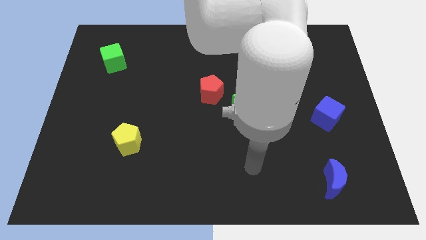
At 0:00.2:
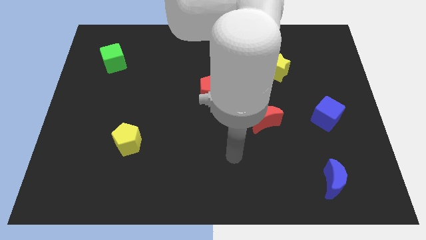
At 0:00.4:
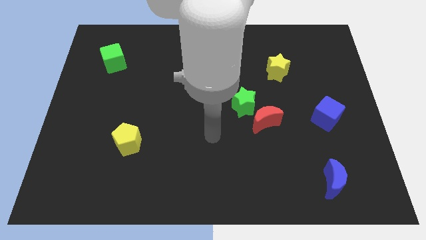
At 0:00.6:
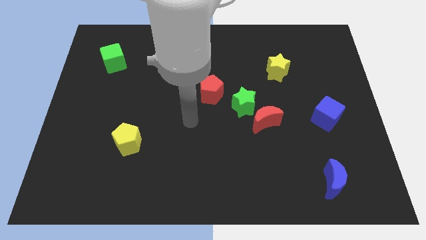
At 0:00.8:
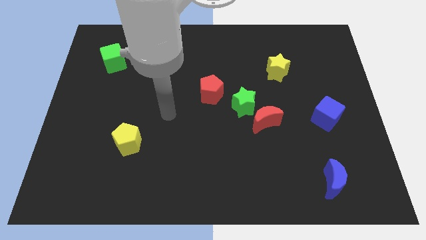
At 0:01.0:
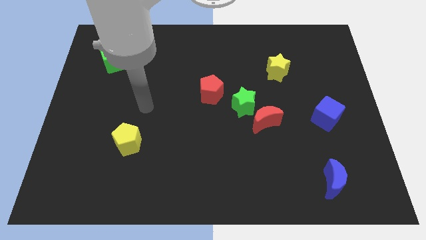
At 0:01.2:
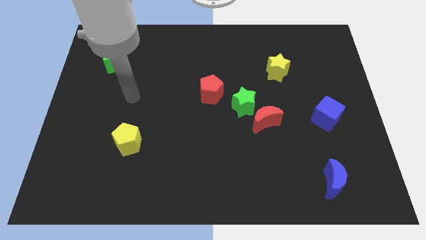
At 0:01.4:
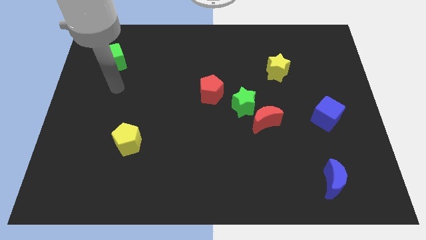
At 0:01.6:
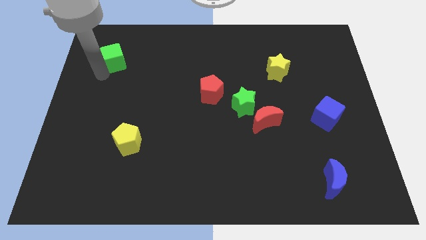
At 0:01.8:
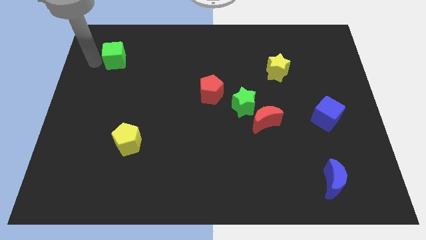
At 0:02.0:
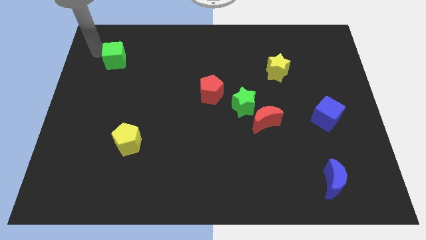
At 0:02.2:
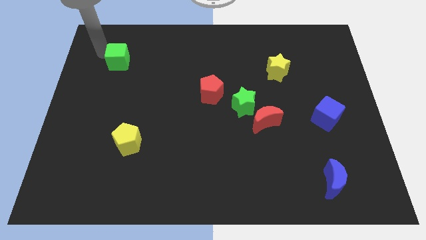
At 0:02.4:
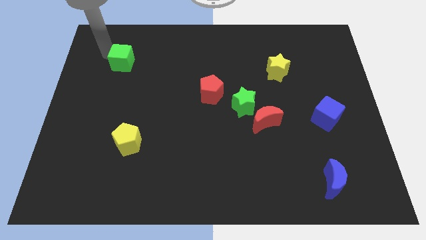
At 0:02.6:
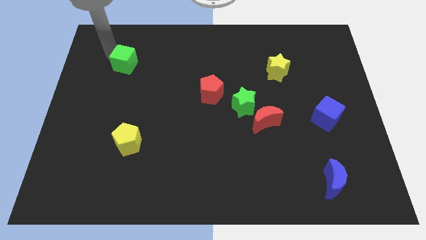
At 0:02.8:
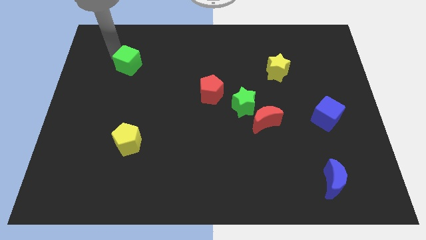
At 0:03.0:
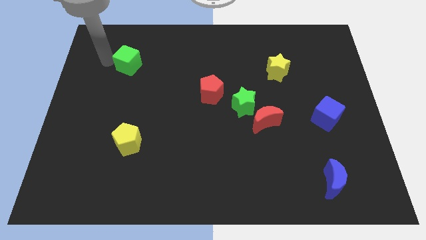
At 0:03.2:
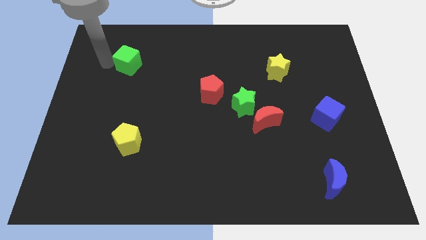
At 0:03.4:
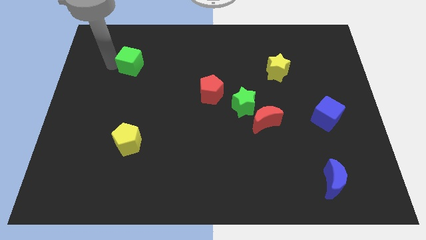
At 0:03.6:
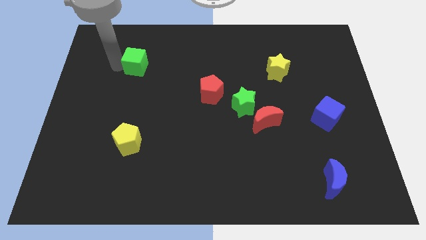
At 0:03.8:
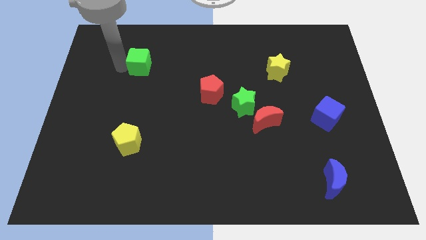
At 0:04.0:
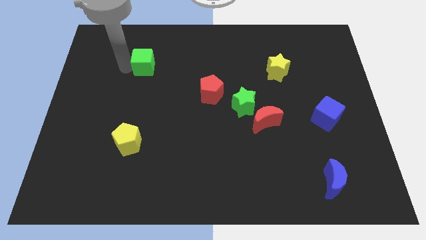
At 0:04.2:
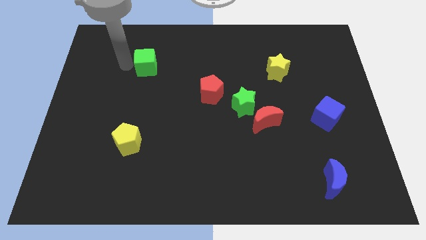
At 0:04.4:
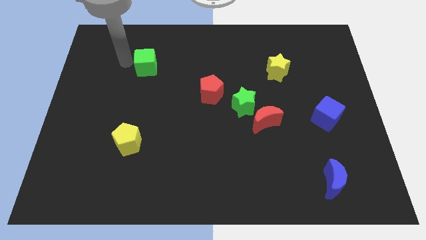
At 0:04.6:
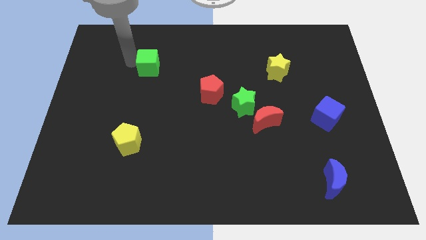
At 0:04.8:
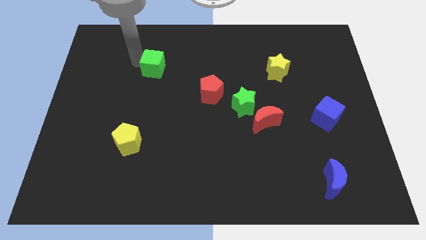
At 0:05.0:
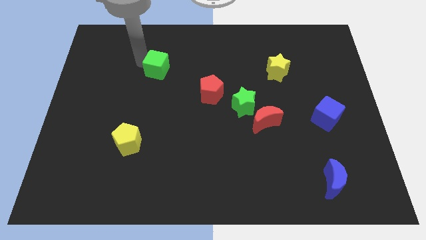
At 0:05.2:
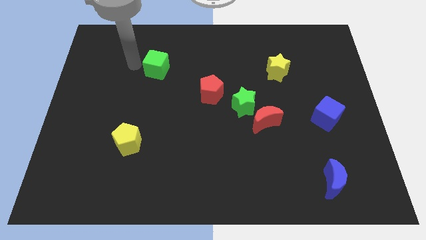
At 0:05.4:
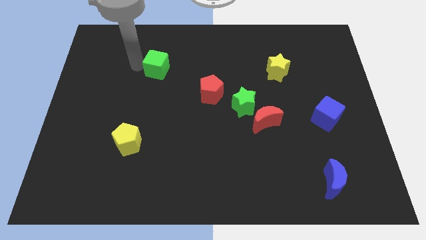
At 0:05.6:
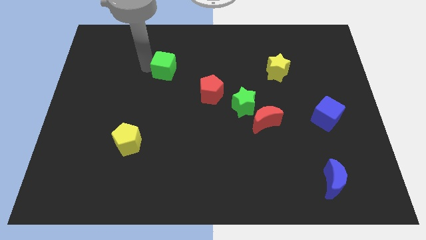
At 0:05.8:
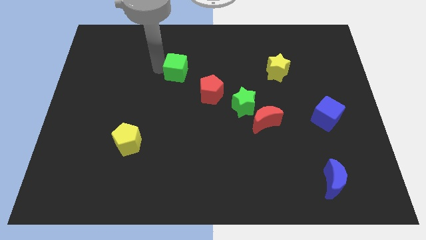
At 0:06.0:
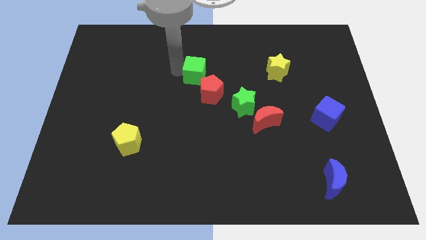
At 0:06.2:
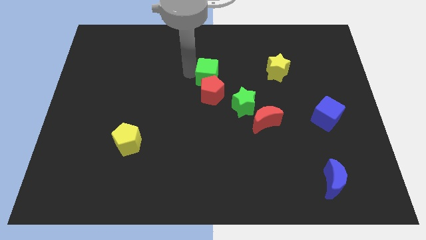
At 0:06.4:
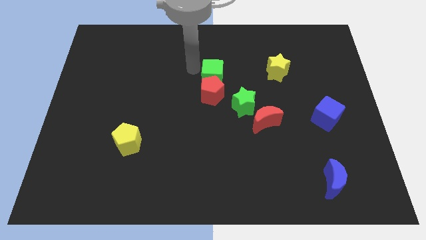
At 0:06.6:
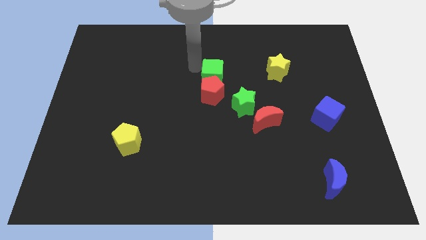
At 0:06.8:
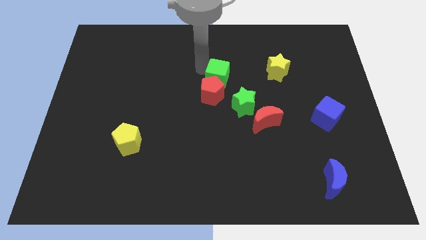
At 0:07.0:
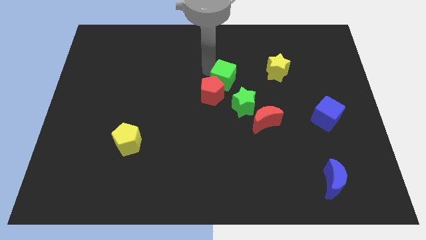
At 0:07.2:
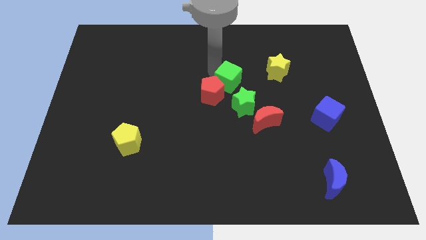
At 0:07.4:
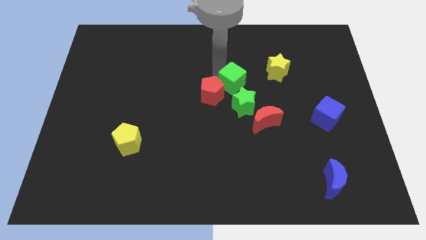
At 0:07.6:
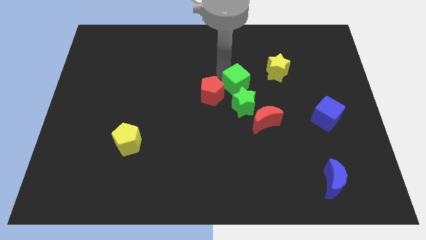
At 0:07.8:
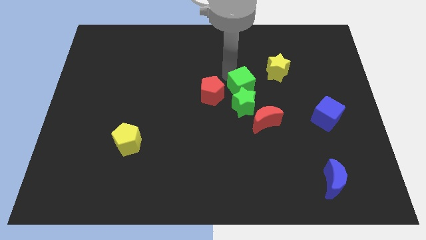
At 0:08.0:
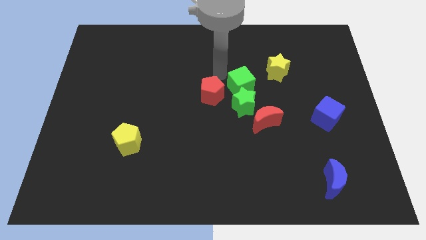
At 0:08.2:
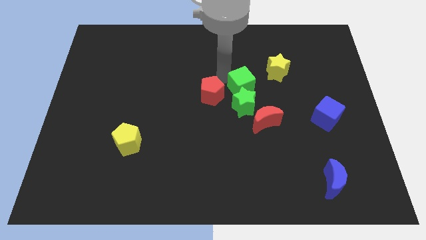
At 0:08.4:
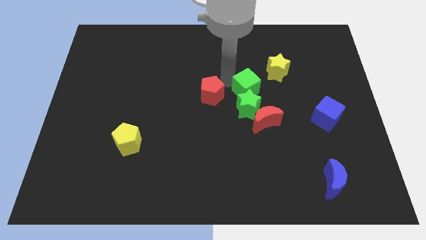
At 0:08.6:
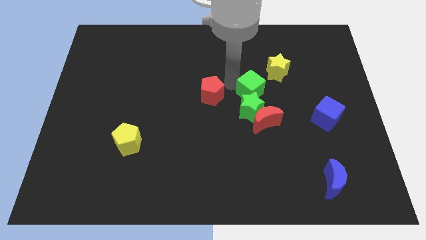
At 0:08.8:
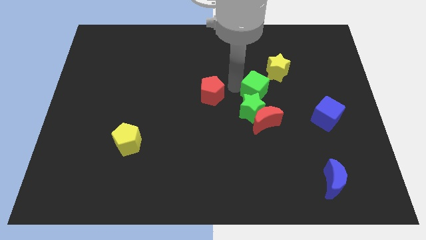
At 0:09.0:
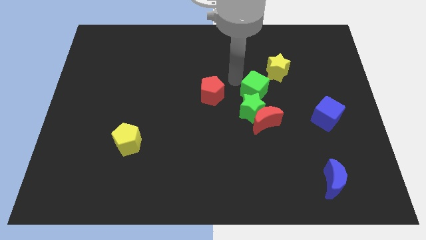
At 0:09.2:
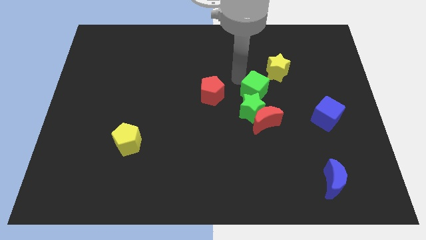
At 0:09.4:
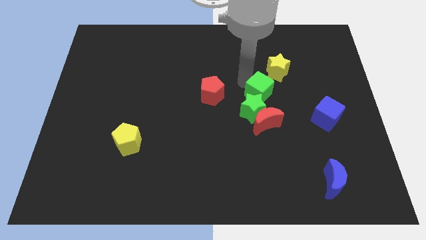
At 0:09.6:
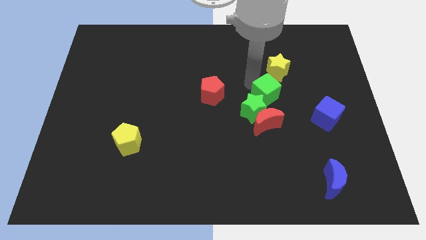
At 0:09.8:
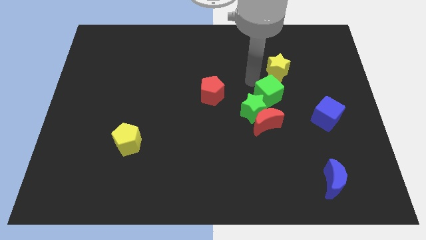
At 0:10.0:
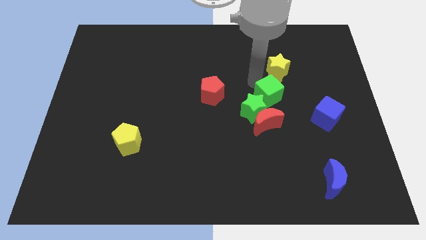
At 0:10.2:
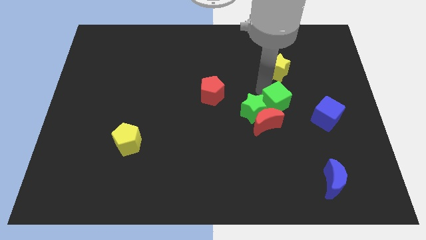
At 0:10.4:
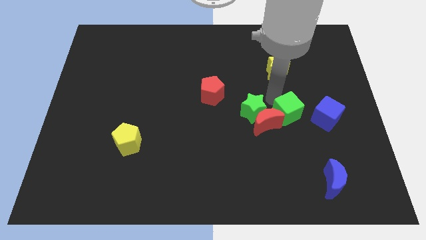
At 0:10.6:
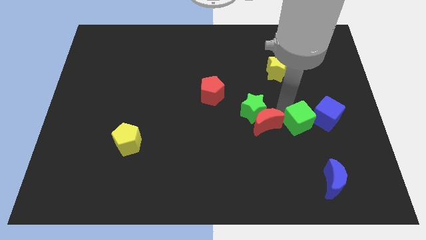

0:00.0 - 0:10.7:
push the green cube to the bottom left side of the blue cube

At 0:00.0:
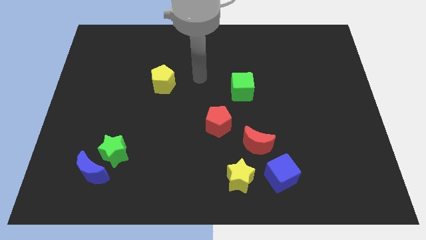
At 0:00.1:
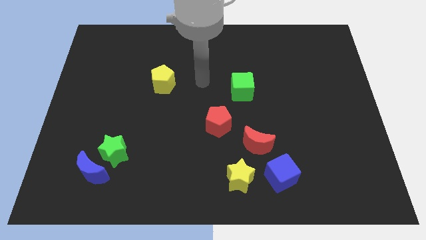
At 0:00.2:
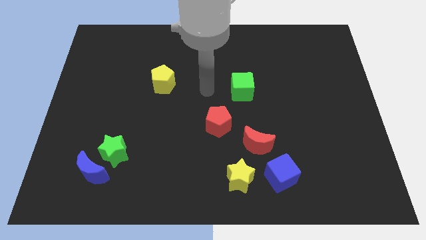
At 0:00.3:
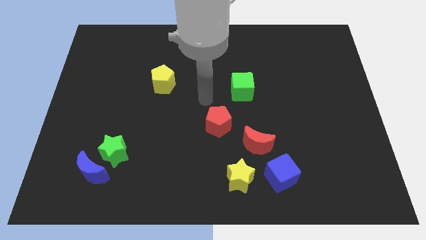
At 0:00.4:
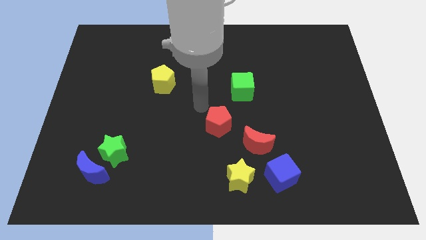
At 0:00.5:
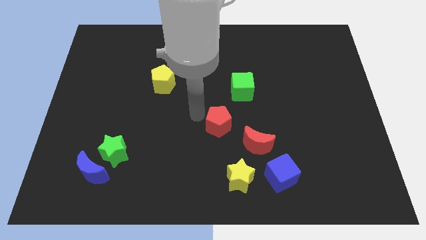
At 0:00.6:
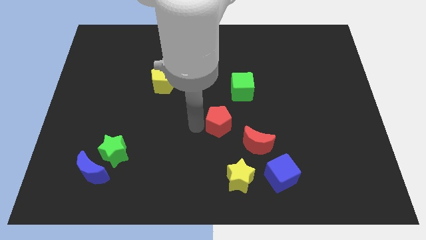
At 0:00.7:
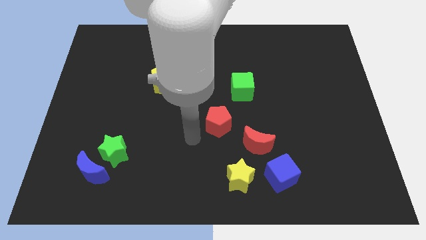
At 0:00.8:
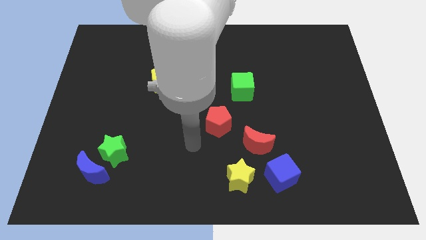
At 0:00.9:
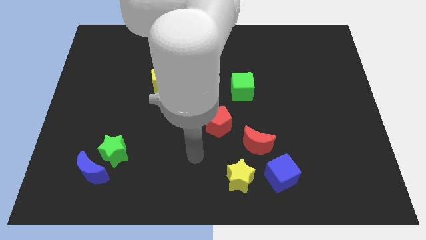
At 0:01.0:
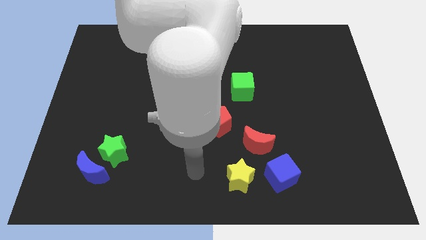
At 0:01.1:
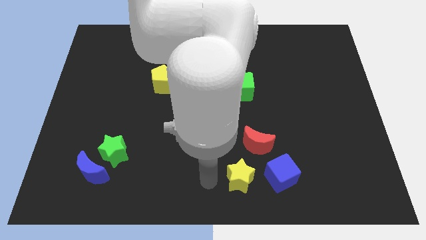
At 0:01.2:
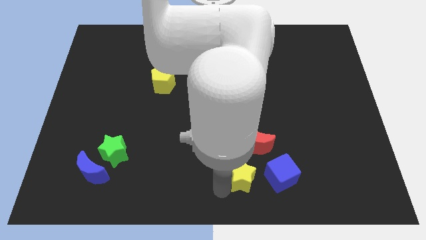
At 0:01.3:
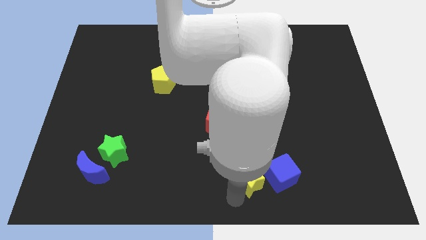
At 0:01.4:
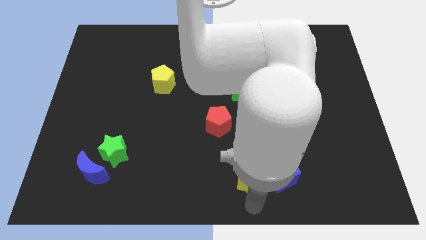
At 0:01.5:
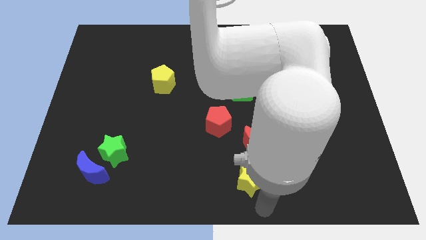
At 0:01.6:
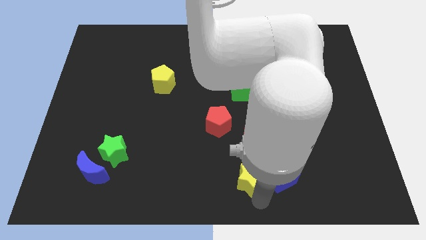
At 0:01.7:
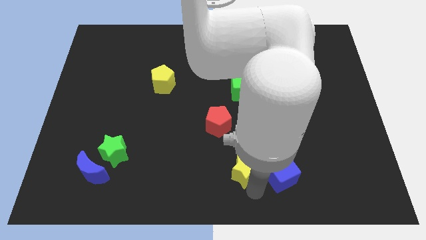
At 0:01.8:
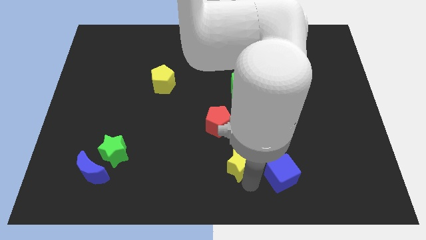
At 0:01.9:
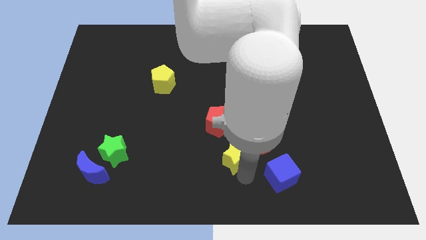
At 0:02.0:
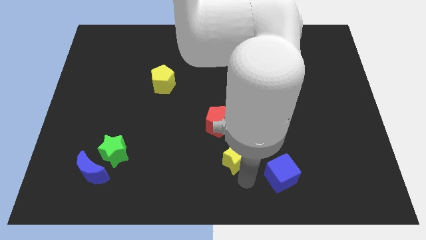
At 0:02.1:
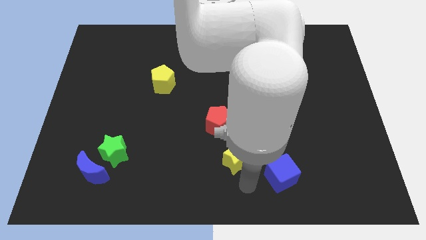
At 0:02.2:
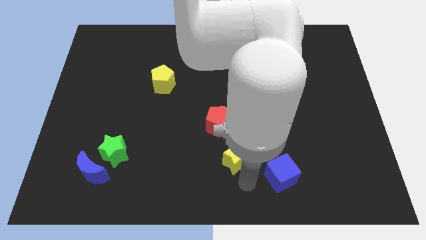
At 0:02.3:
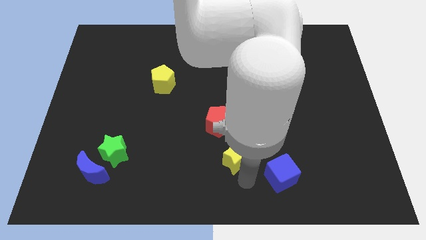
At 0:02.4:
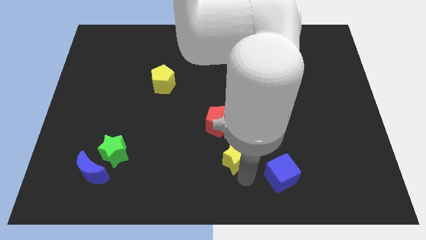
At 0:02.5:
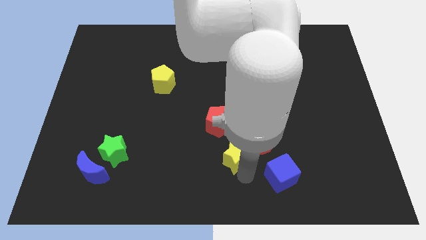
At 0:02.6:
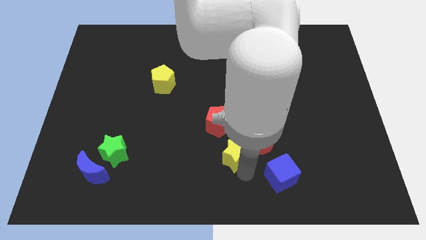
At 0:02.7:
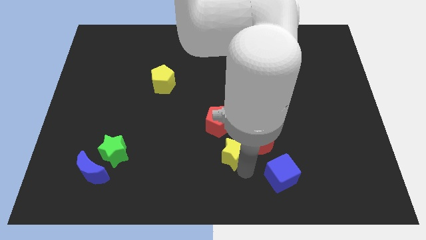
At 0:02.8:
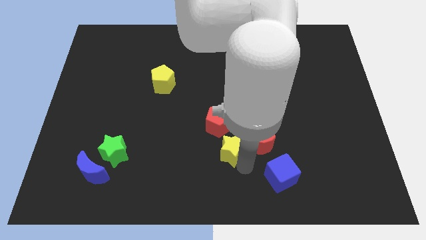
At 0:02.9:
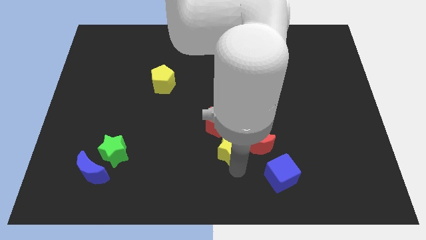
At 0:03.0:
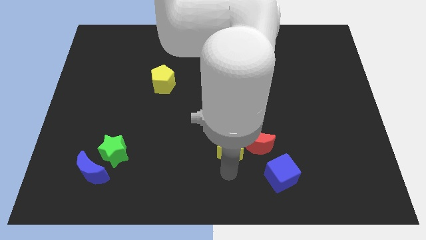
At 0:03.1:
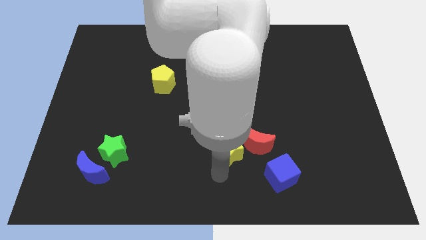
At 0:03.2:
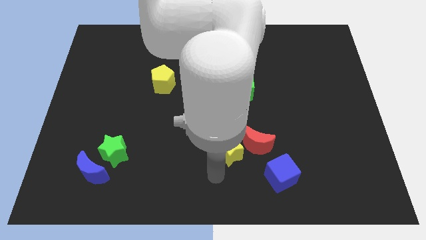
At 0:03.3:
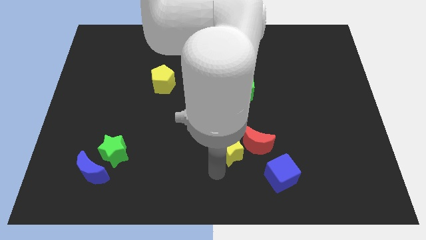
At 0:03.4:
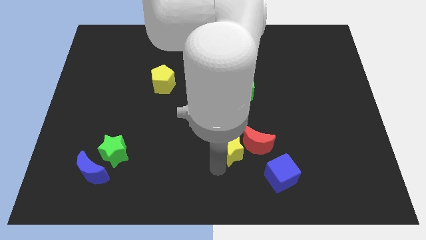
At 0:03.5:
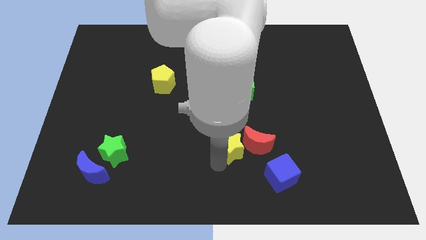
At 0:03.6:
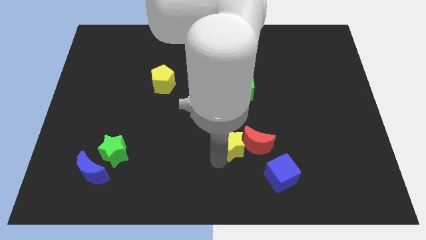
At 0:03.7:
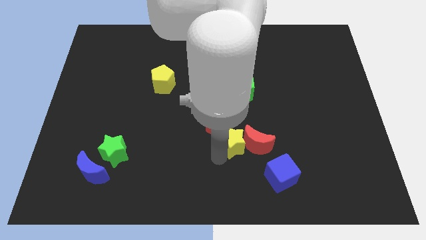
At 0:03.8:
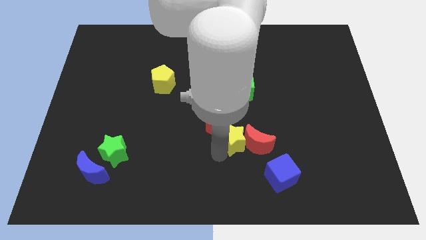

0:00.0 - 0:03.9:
move the yellow star below the green cube
